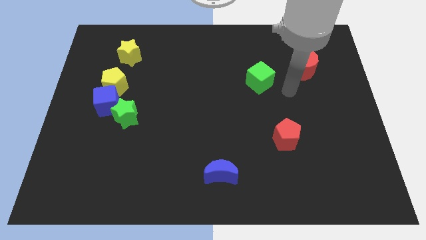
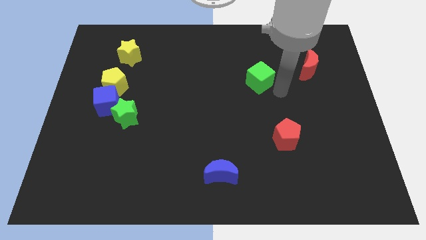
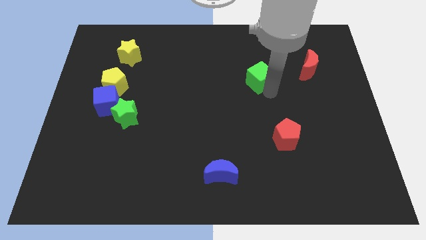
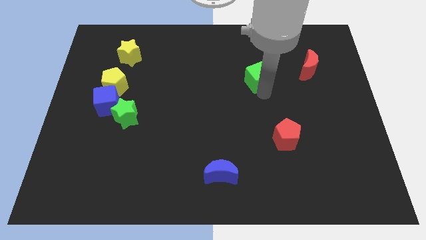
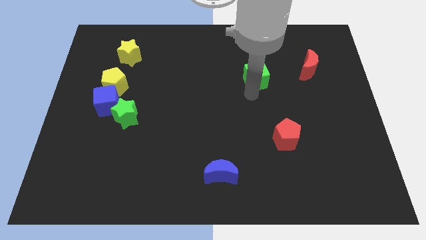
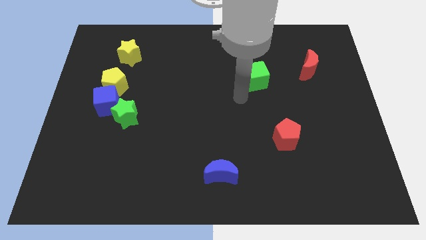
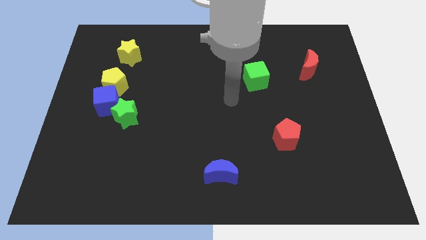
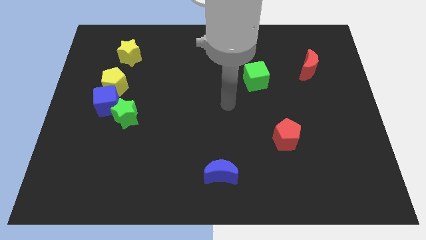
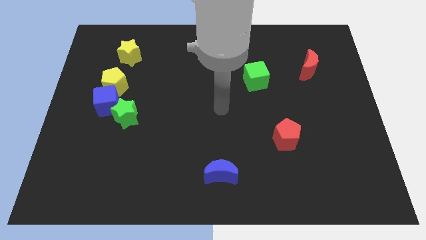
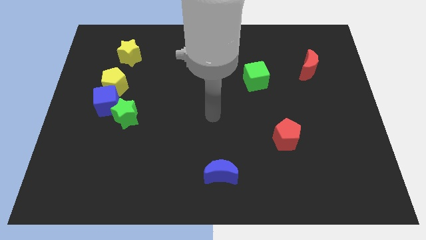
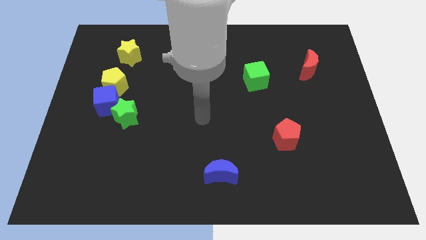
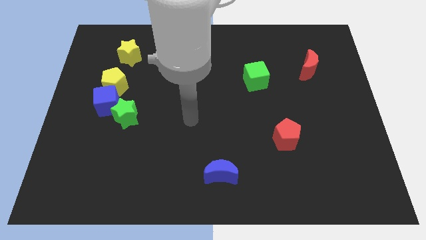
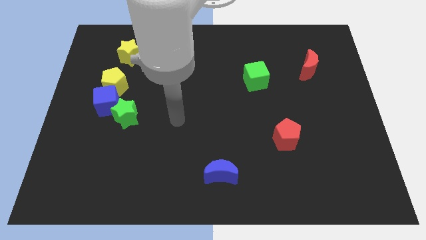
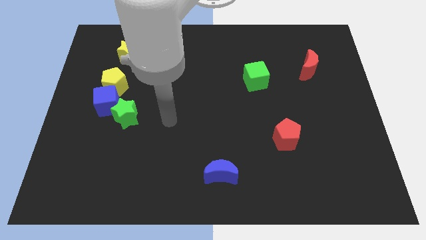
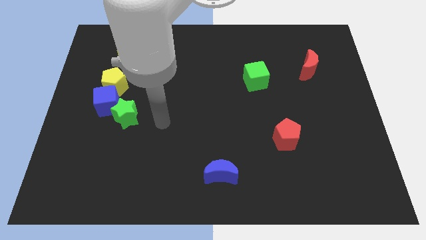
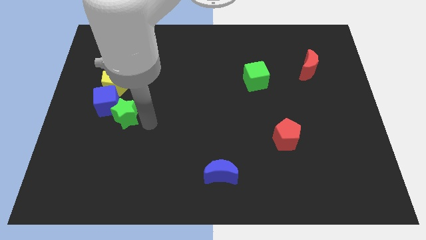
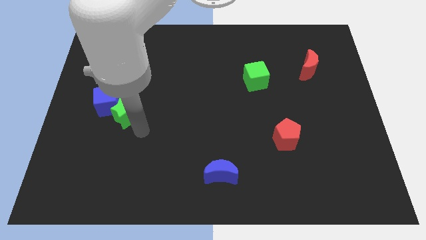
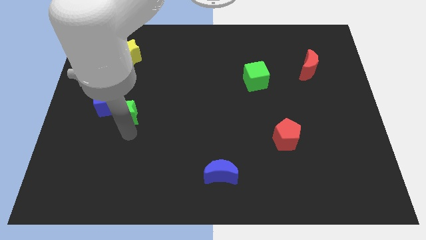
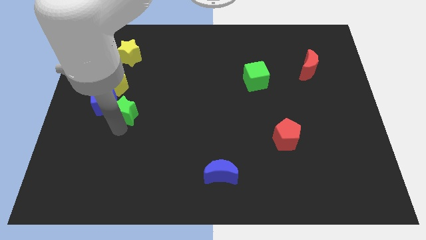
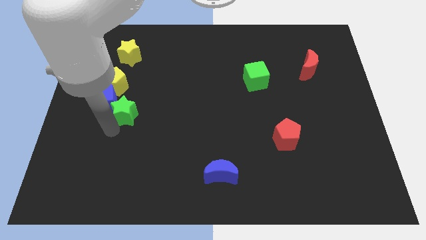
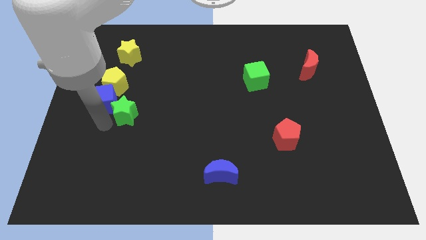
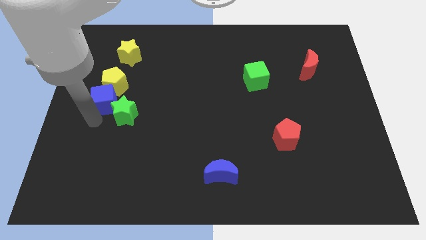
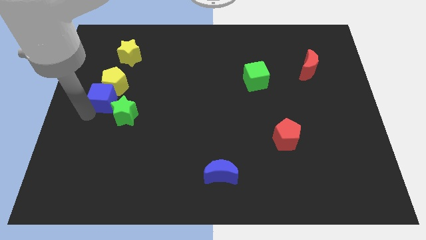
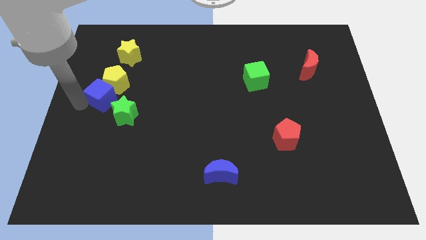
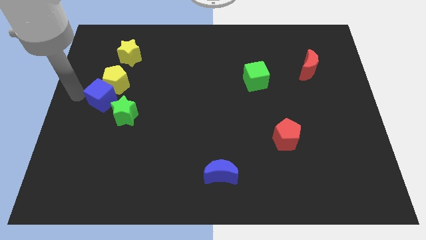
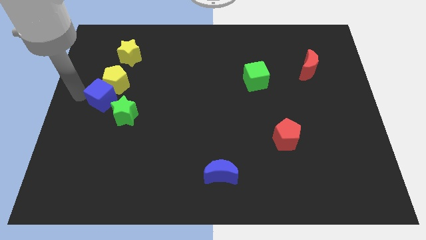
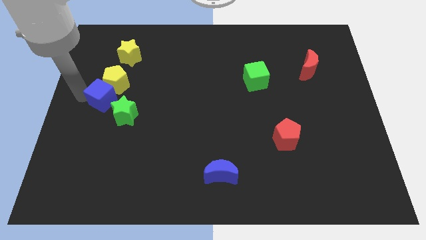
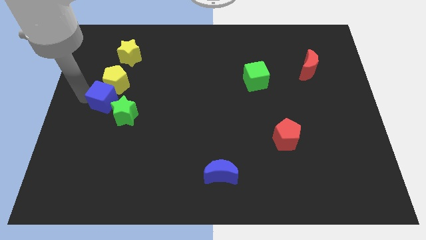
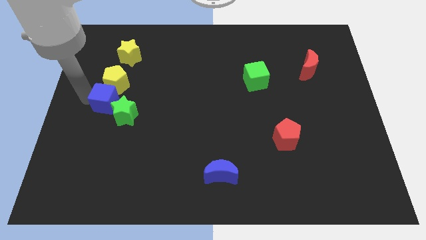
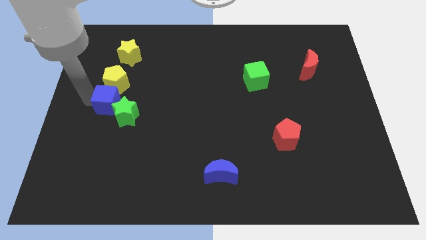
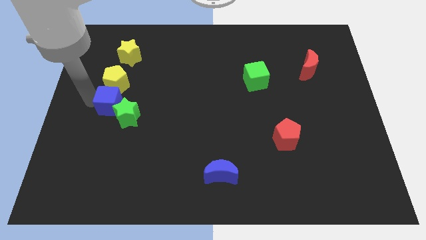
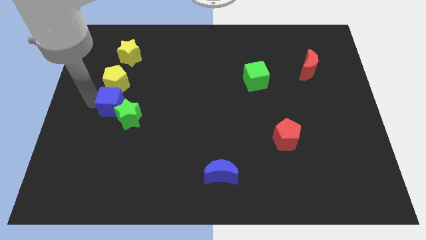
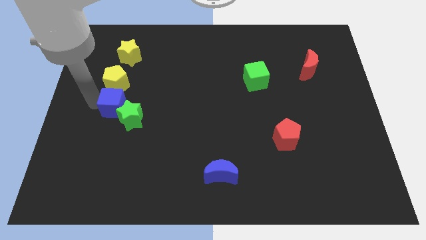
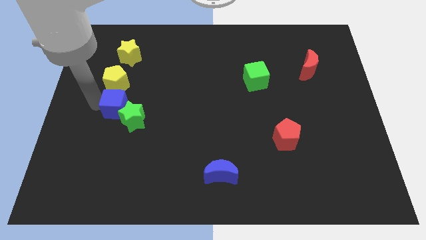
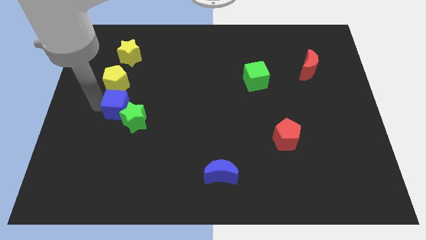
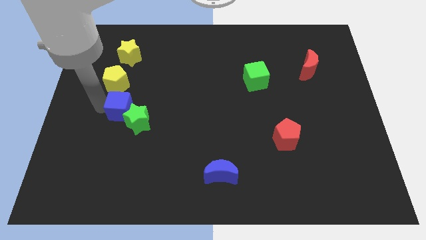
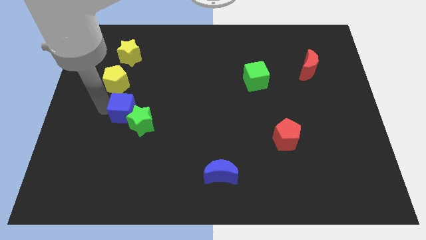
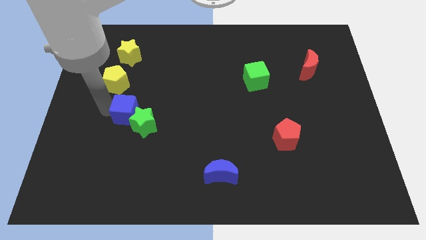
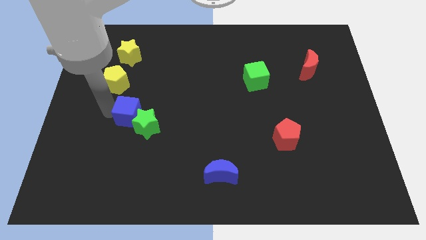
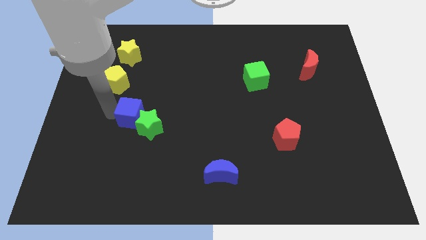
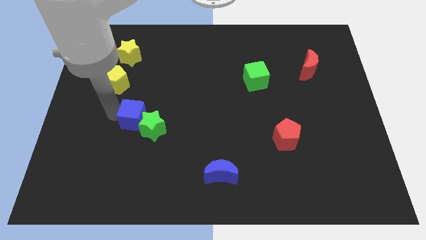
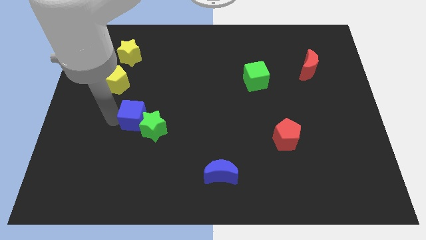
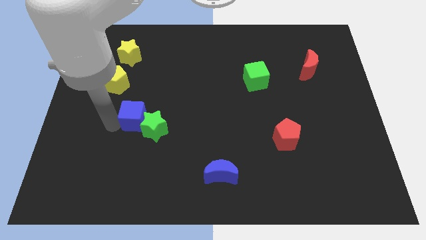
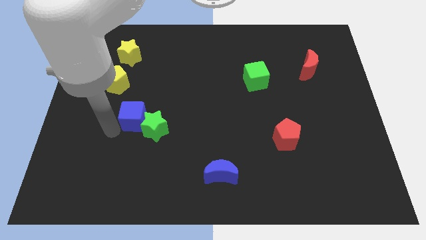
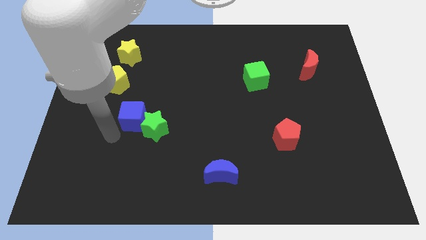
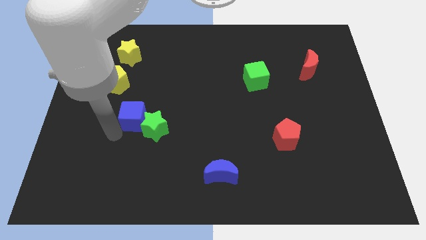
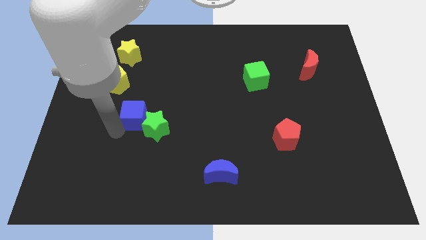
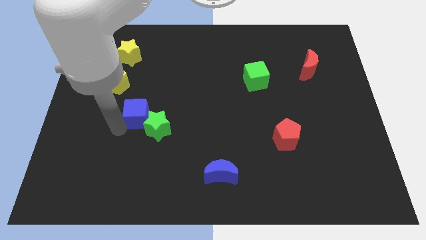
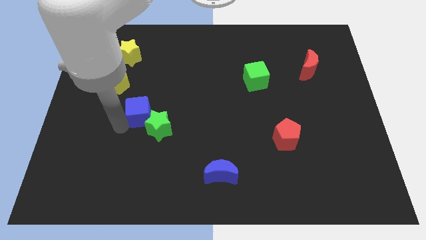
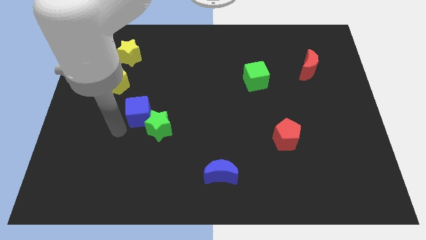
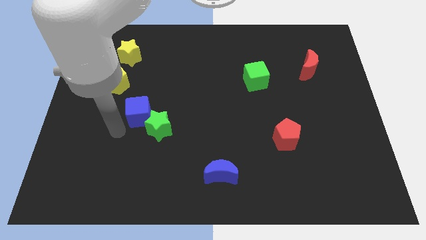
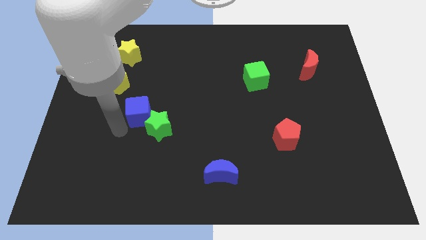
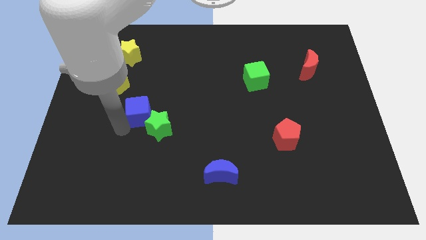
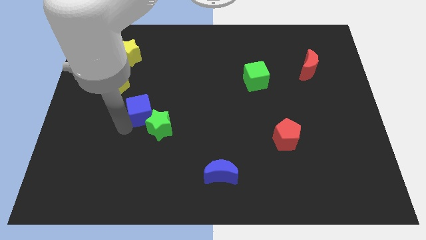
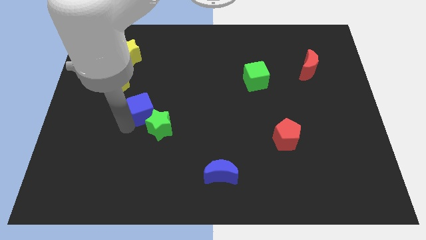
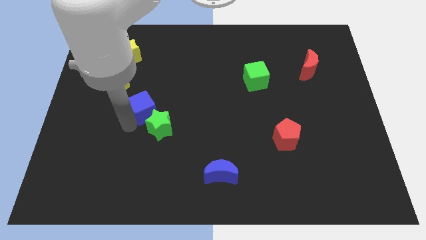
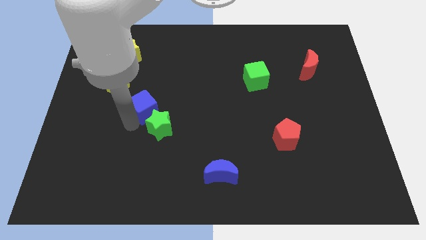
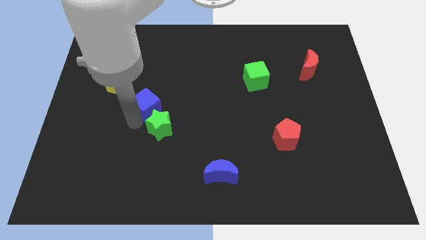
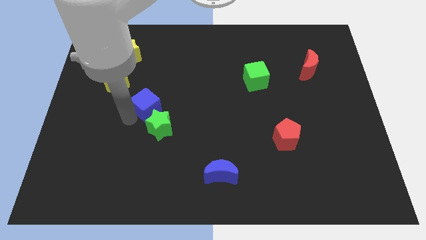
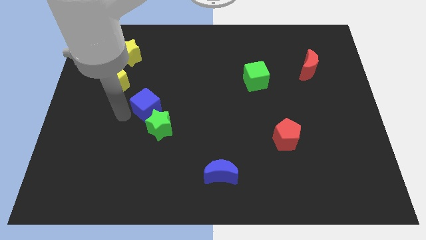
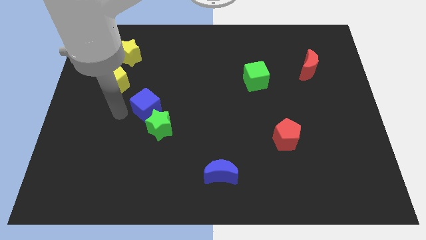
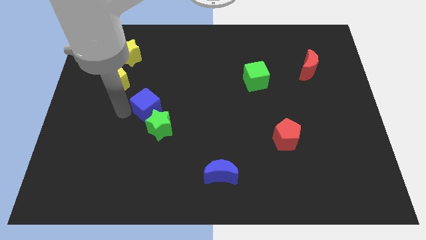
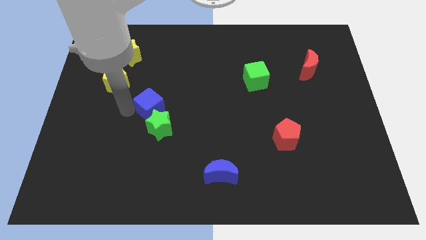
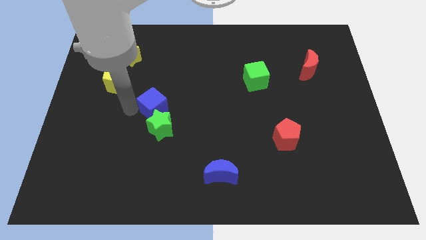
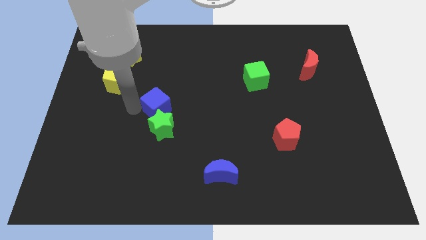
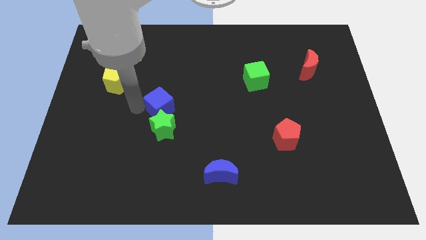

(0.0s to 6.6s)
put the blue cube to the middle of the board

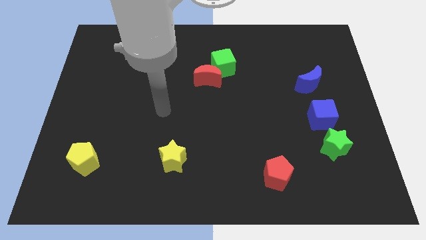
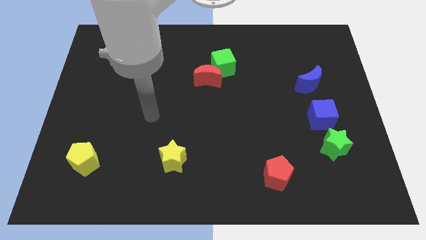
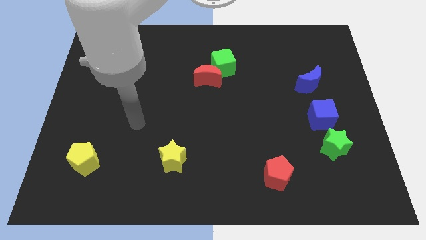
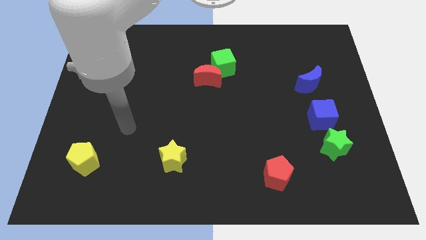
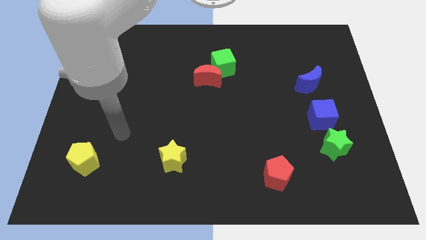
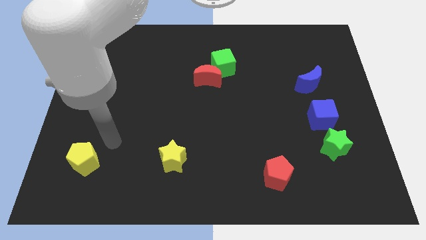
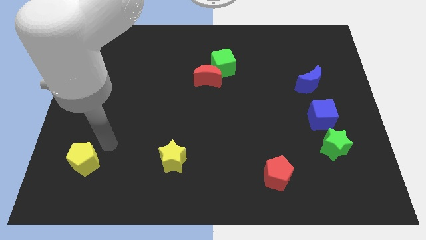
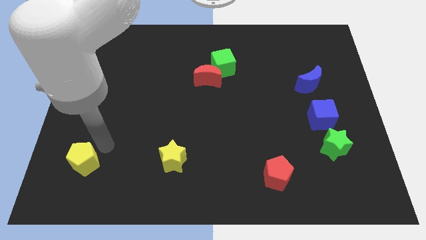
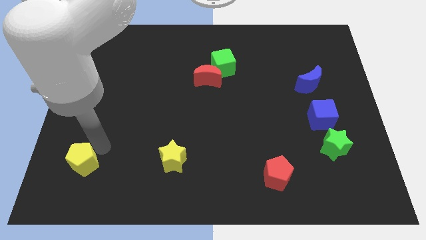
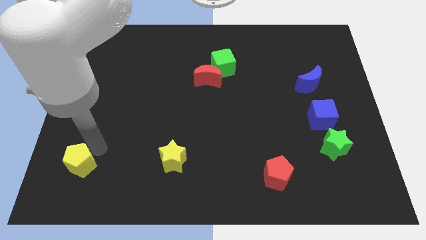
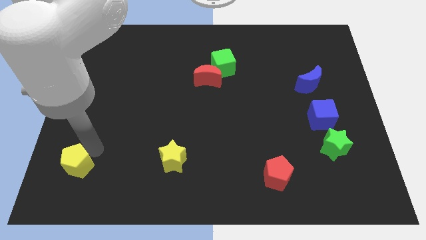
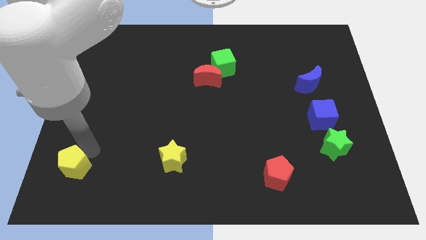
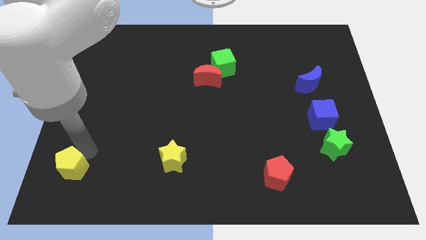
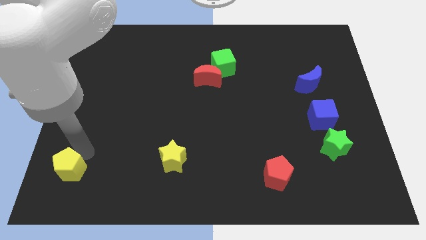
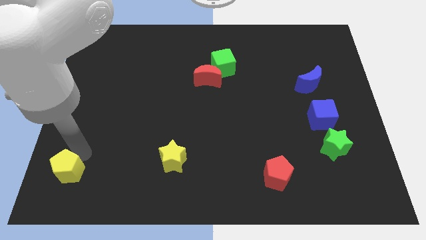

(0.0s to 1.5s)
put the yellow pentagon to the lower left corner
